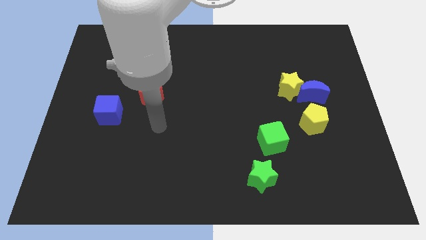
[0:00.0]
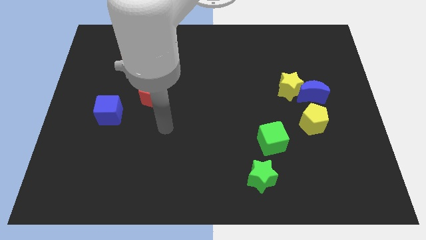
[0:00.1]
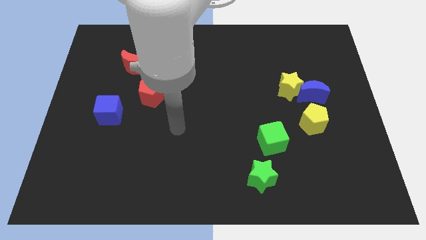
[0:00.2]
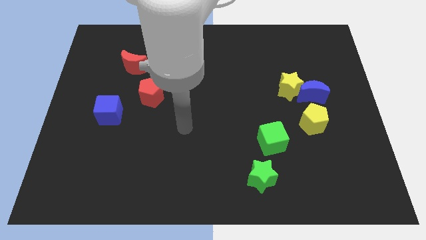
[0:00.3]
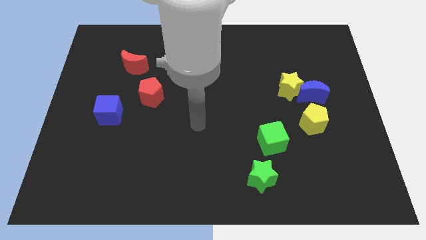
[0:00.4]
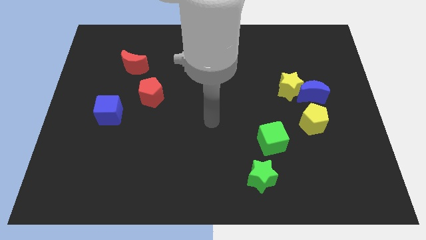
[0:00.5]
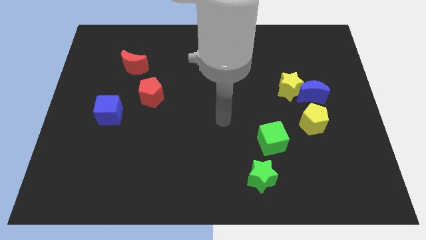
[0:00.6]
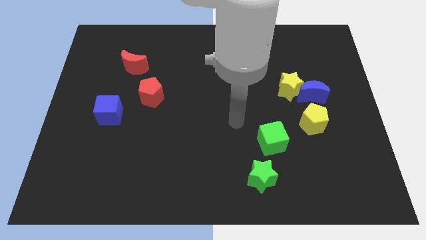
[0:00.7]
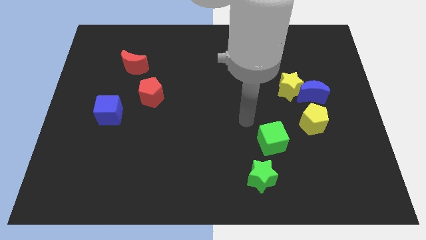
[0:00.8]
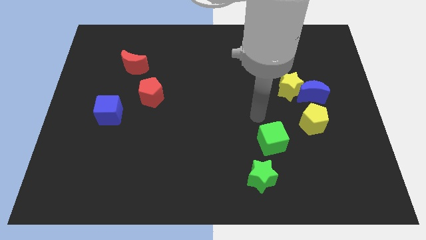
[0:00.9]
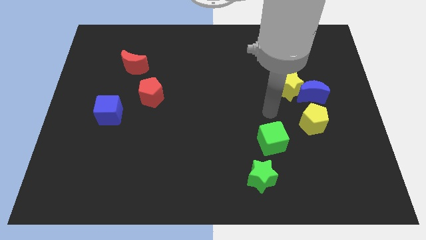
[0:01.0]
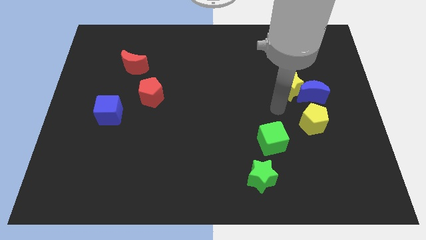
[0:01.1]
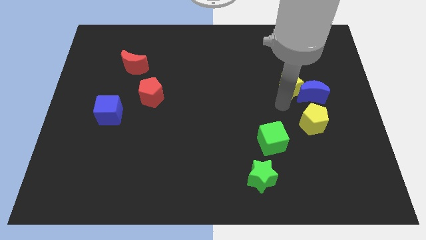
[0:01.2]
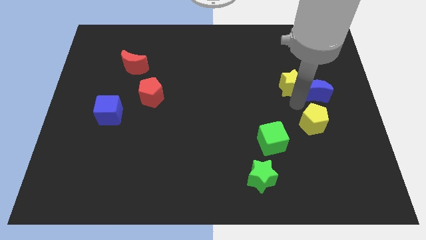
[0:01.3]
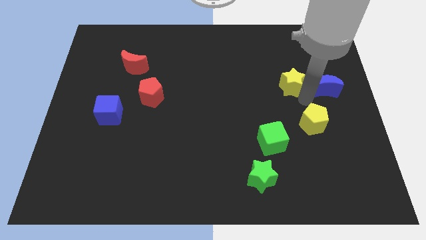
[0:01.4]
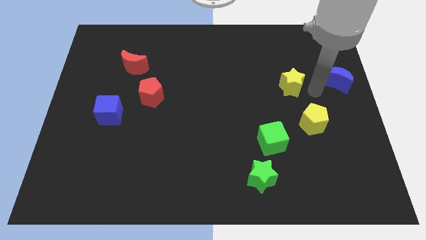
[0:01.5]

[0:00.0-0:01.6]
separate the yellow star from the blue moon

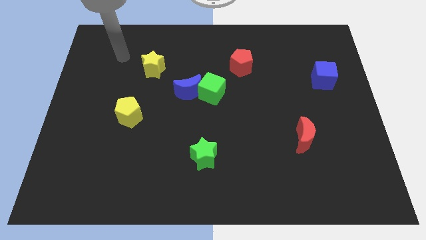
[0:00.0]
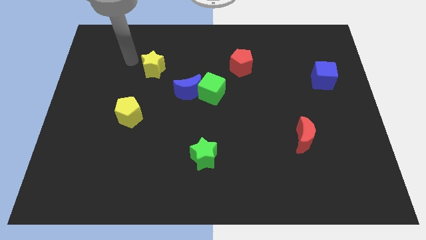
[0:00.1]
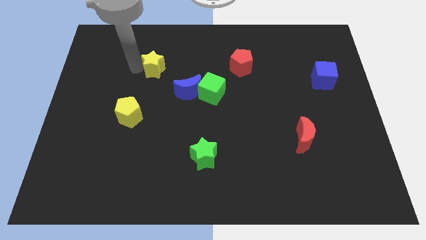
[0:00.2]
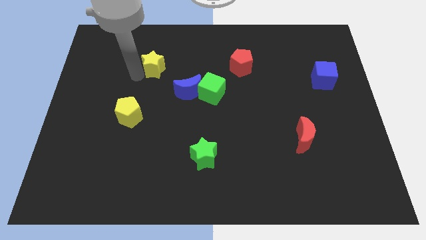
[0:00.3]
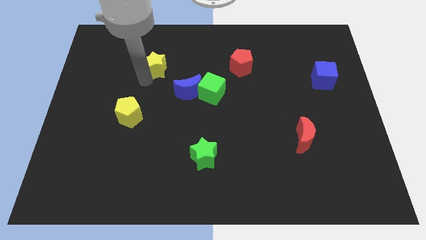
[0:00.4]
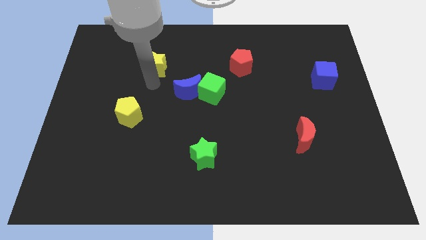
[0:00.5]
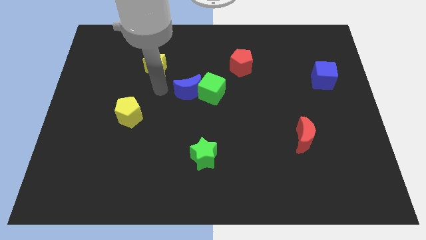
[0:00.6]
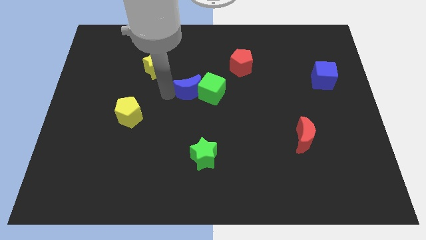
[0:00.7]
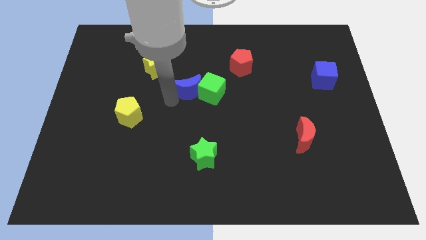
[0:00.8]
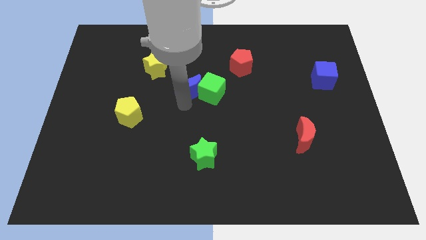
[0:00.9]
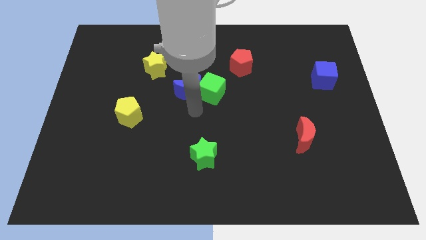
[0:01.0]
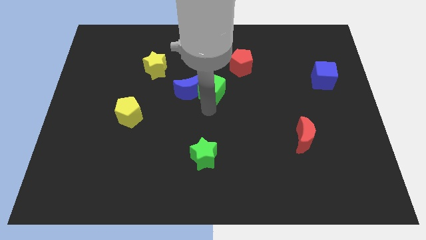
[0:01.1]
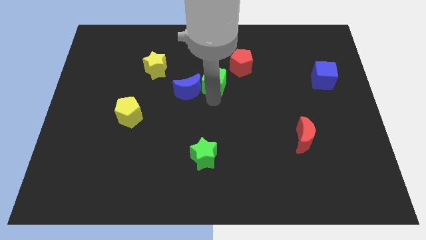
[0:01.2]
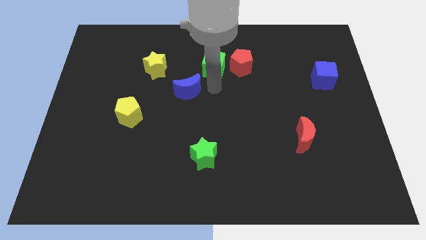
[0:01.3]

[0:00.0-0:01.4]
move the blue moon away from the green cube

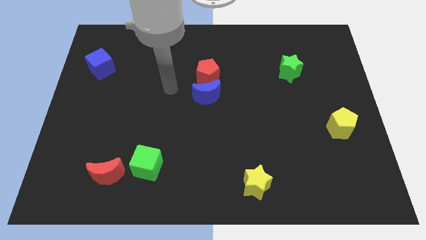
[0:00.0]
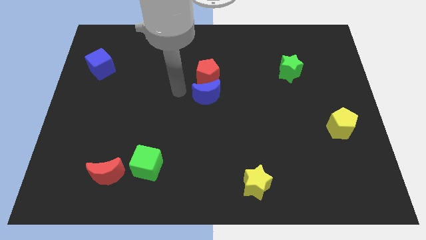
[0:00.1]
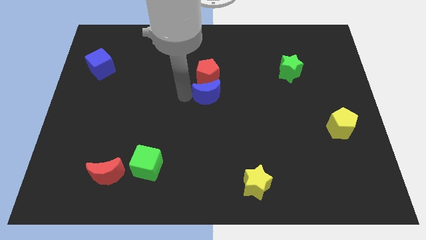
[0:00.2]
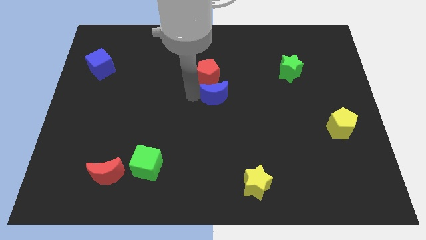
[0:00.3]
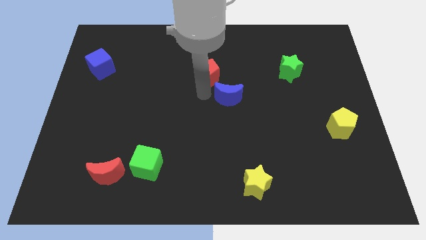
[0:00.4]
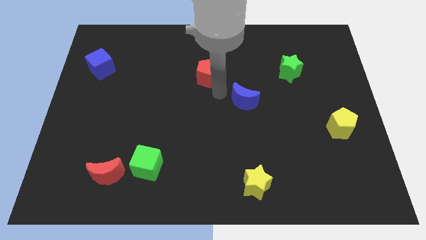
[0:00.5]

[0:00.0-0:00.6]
pull the red pentagon apart from the blue moon

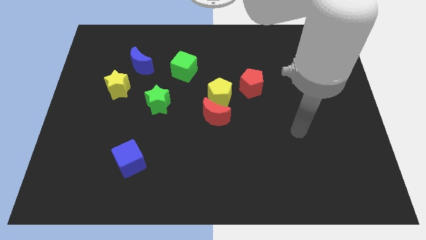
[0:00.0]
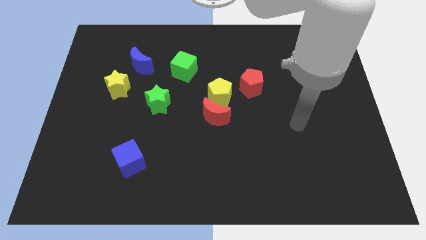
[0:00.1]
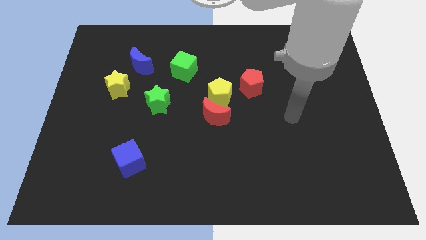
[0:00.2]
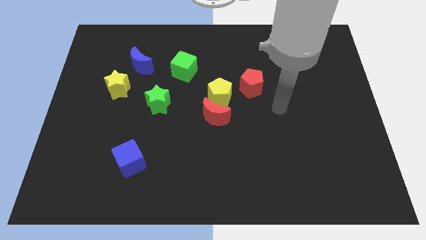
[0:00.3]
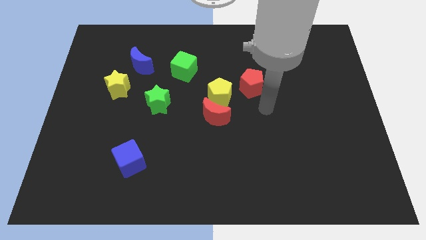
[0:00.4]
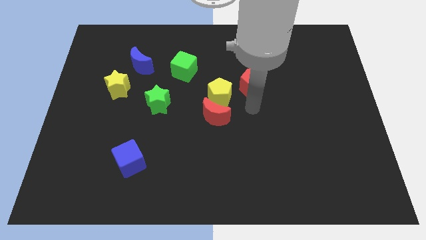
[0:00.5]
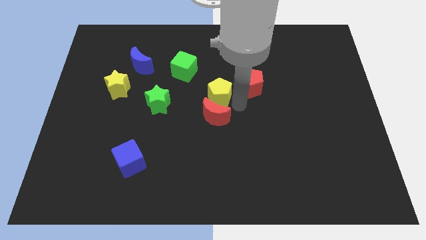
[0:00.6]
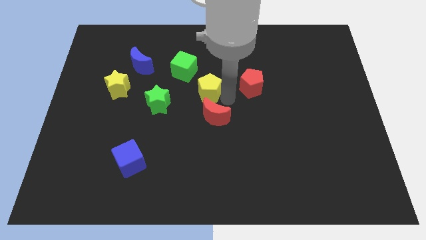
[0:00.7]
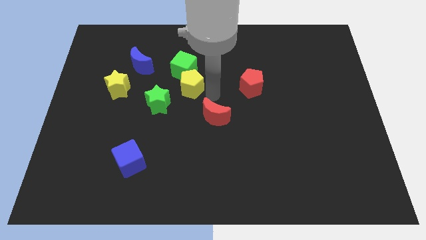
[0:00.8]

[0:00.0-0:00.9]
separate the red moon from the yellow pentagon

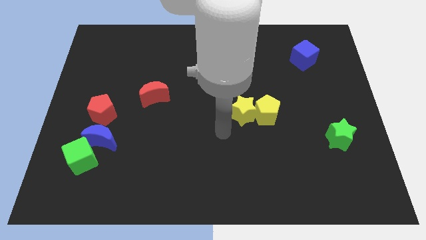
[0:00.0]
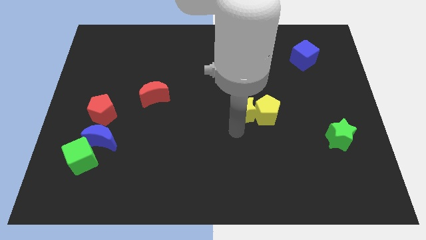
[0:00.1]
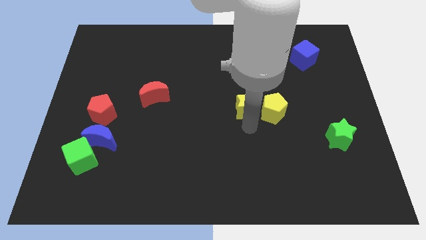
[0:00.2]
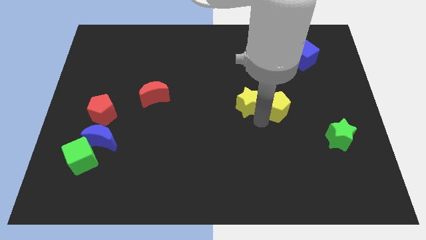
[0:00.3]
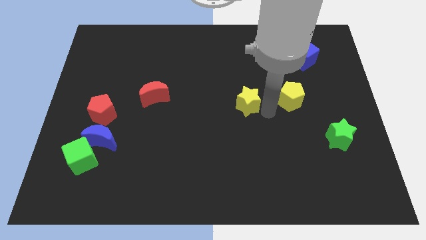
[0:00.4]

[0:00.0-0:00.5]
pull the yellow star apart from the yellow pentagon

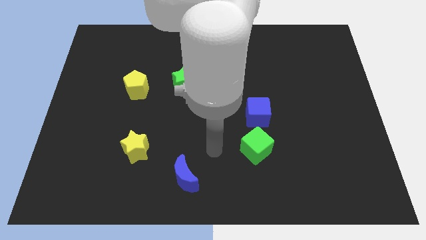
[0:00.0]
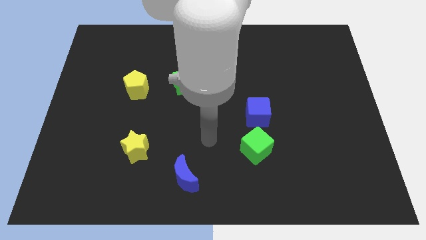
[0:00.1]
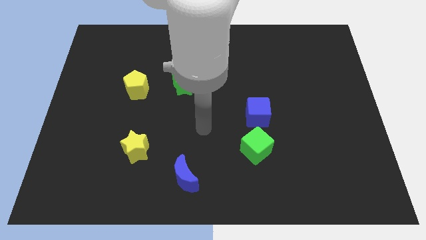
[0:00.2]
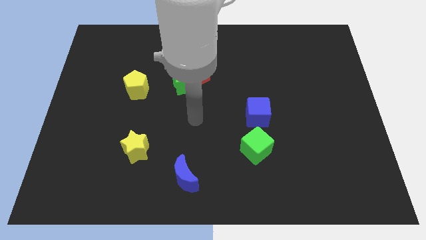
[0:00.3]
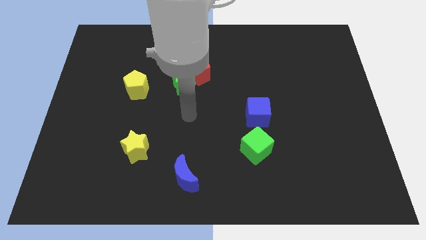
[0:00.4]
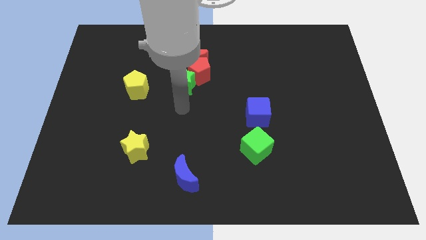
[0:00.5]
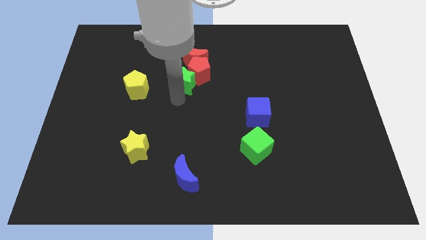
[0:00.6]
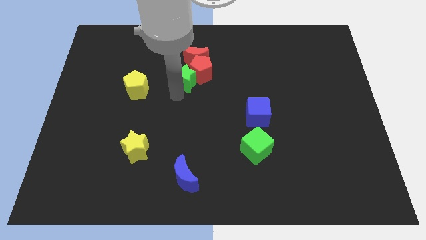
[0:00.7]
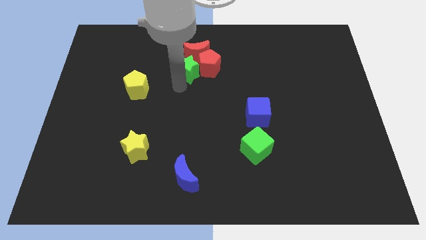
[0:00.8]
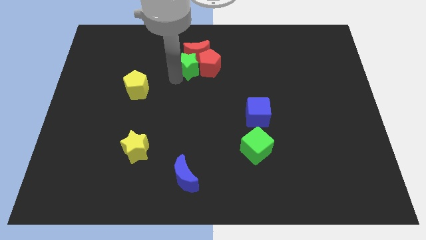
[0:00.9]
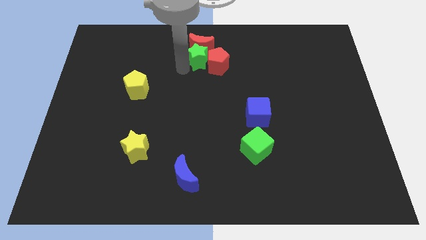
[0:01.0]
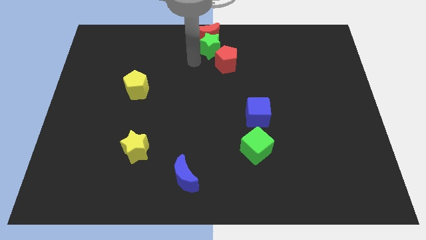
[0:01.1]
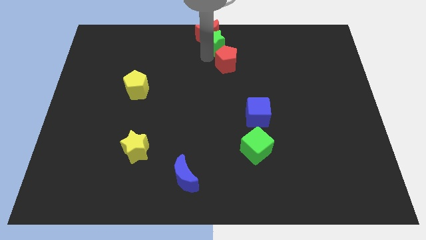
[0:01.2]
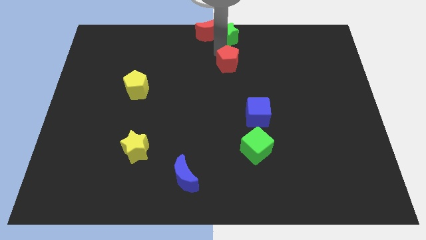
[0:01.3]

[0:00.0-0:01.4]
move the red pentagon away from the red moon and green star

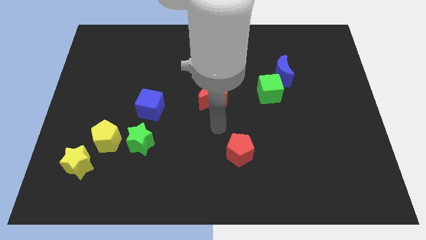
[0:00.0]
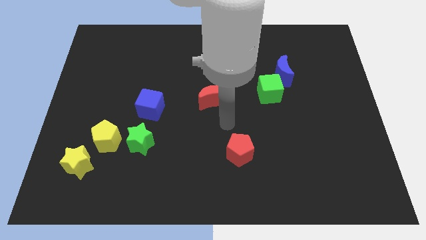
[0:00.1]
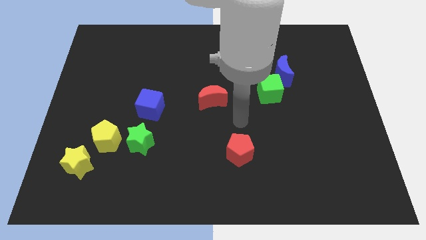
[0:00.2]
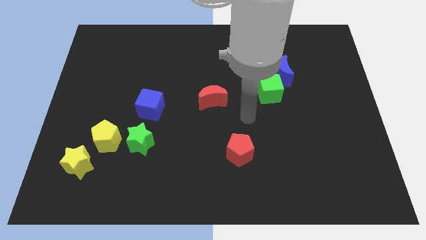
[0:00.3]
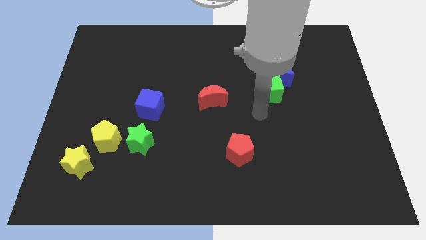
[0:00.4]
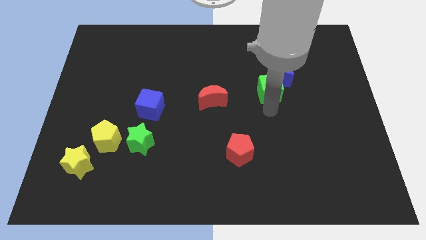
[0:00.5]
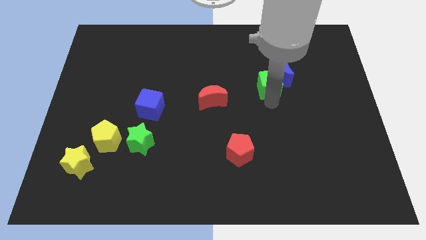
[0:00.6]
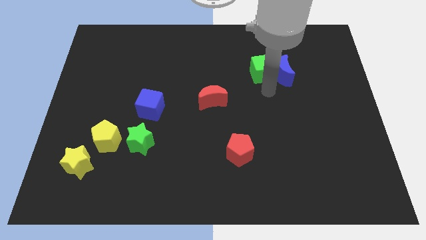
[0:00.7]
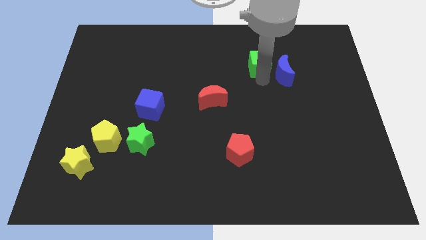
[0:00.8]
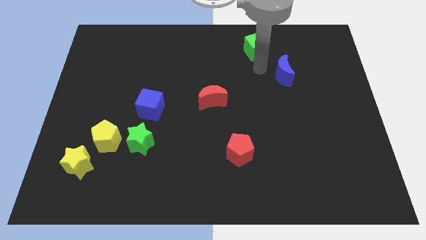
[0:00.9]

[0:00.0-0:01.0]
pull the blue moon apart from the green cube

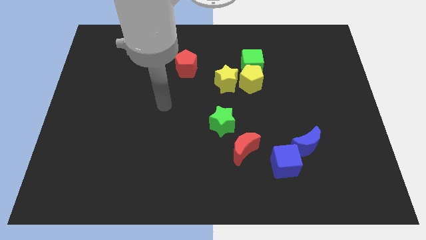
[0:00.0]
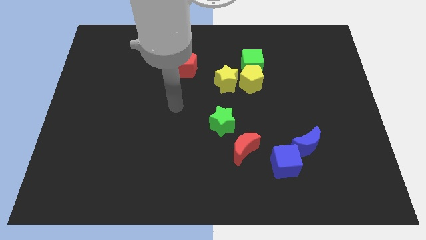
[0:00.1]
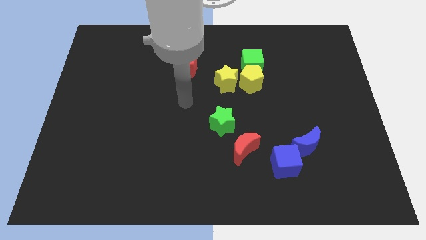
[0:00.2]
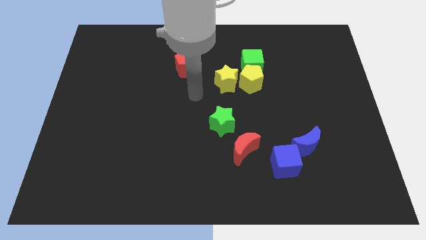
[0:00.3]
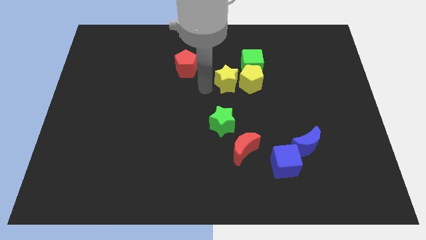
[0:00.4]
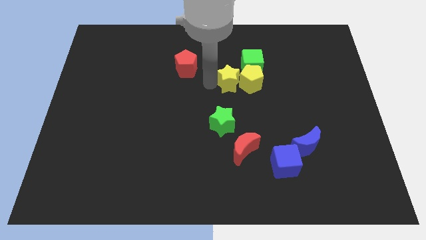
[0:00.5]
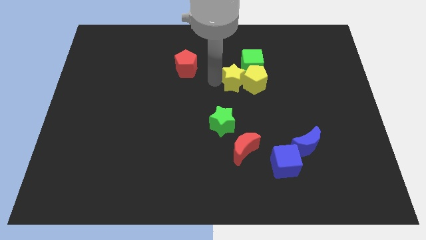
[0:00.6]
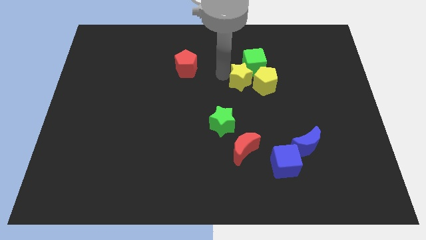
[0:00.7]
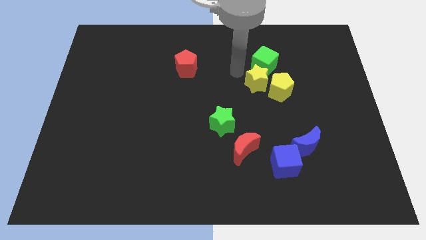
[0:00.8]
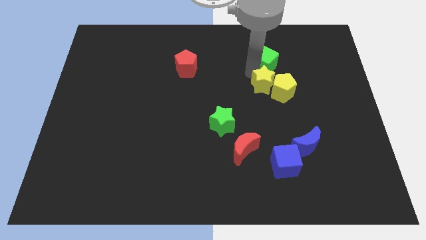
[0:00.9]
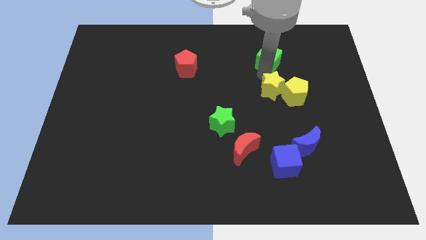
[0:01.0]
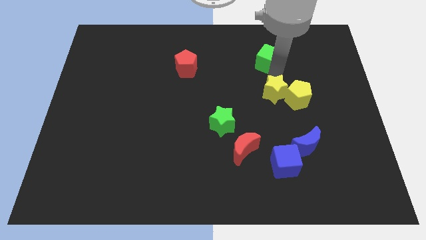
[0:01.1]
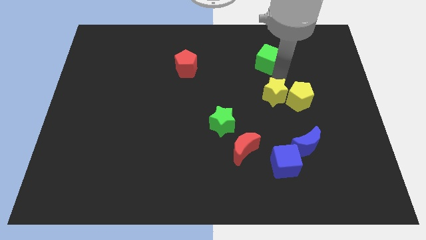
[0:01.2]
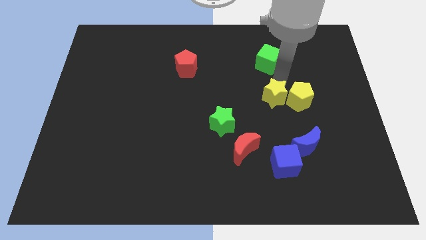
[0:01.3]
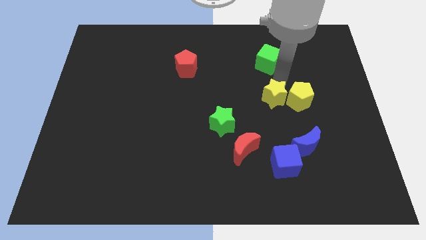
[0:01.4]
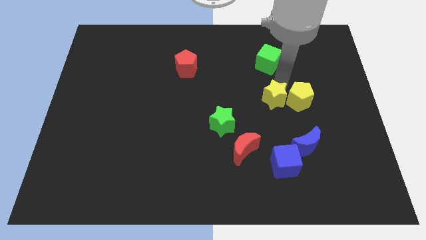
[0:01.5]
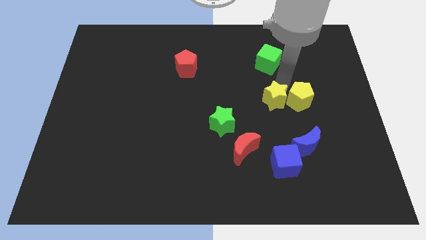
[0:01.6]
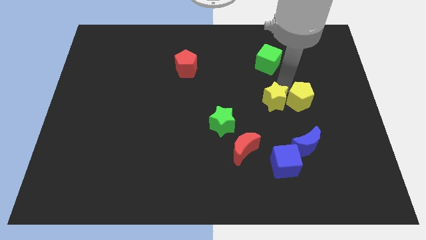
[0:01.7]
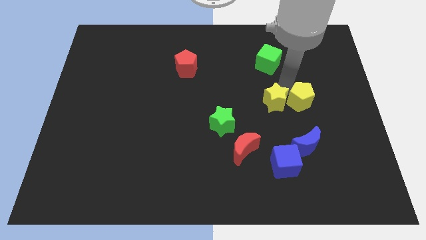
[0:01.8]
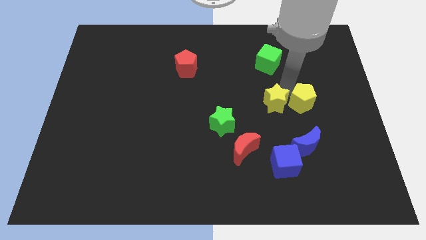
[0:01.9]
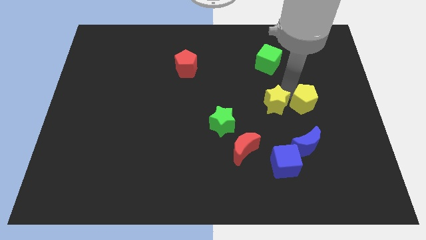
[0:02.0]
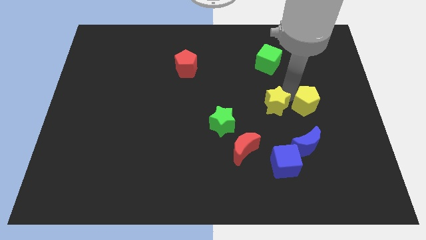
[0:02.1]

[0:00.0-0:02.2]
move the yellow pentagon away from the green cube and yellow star
